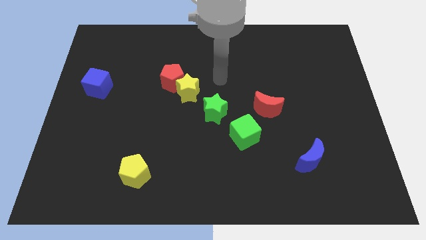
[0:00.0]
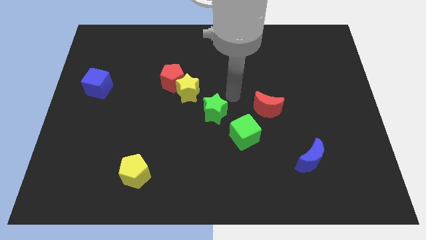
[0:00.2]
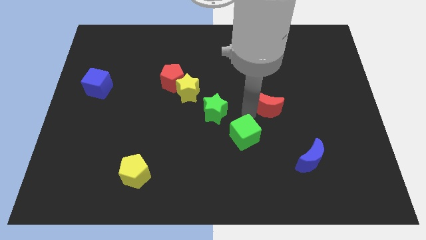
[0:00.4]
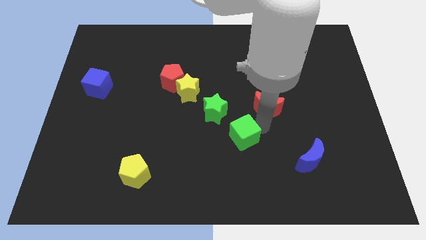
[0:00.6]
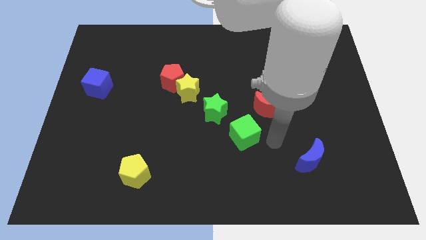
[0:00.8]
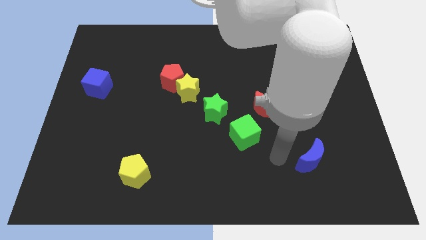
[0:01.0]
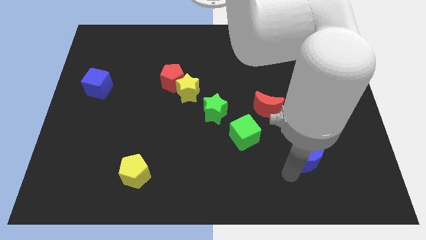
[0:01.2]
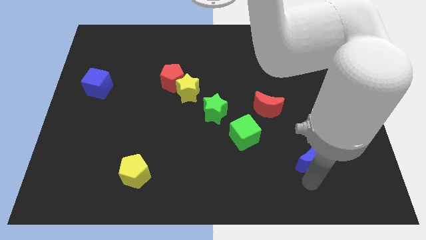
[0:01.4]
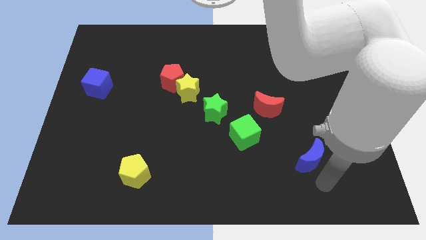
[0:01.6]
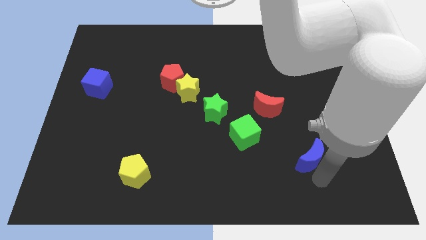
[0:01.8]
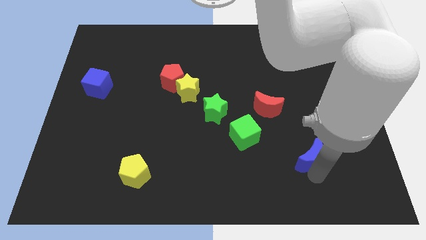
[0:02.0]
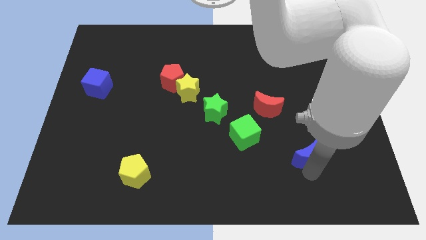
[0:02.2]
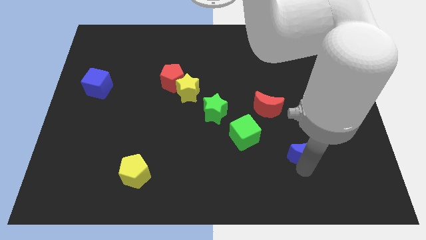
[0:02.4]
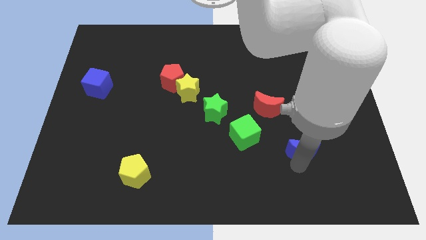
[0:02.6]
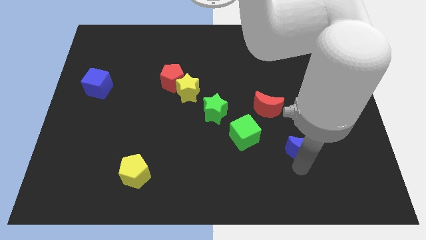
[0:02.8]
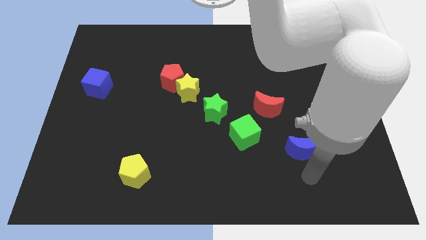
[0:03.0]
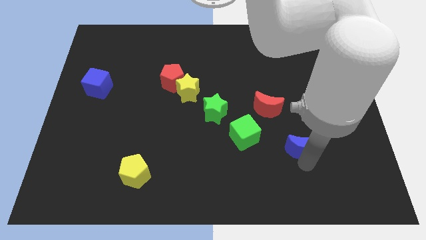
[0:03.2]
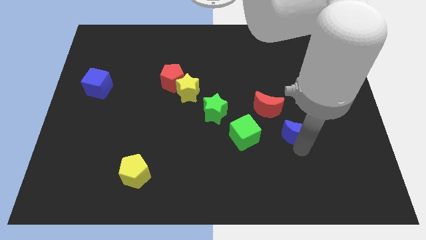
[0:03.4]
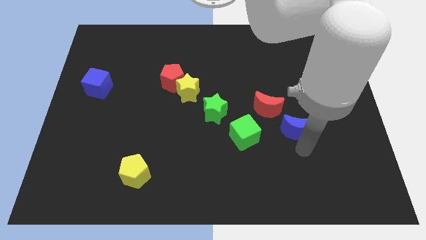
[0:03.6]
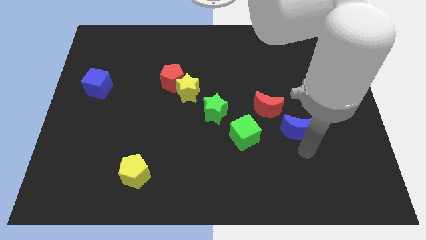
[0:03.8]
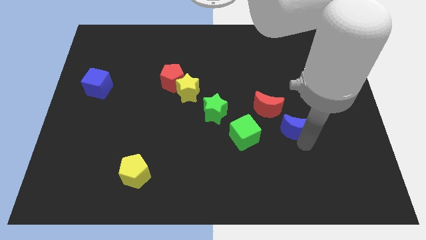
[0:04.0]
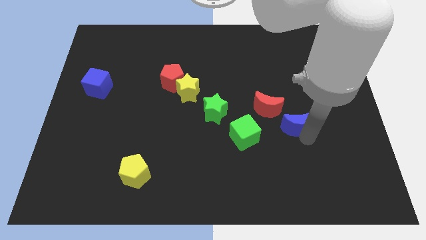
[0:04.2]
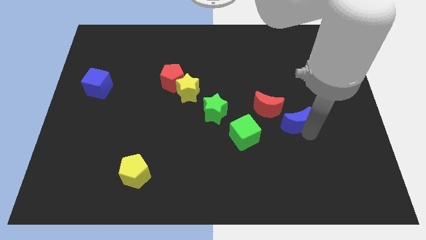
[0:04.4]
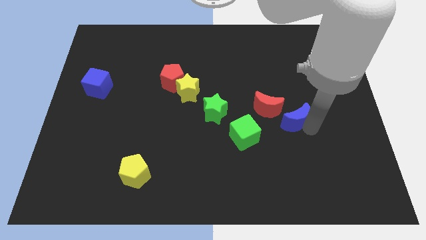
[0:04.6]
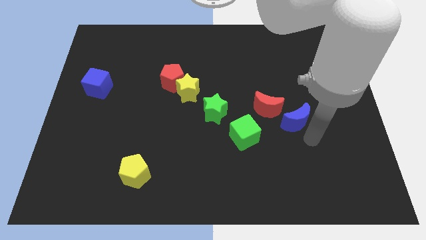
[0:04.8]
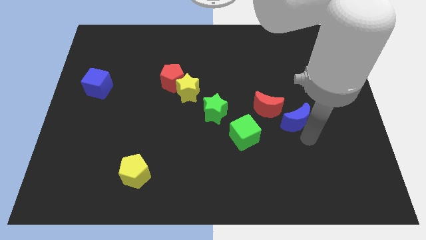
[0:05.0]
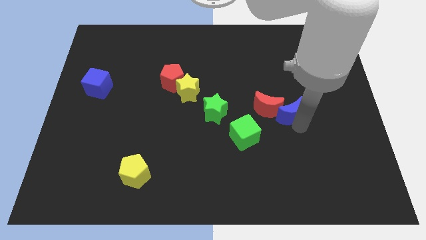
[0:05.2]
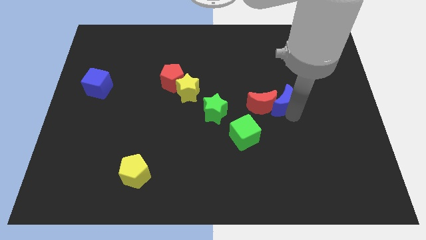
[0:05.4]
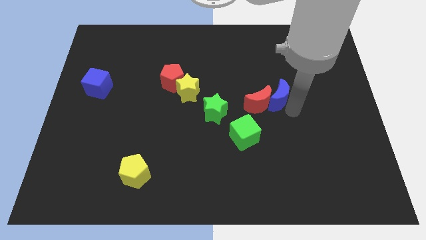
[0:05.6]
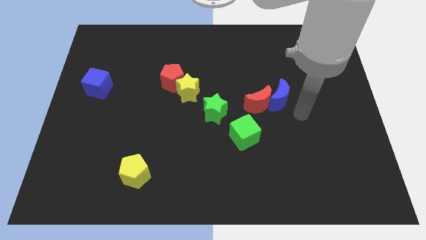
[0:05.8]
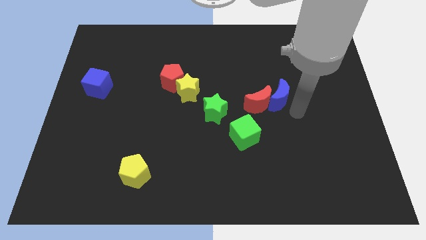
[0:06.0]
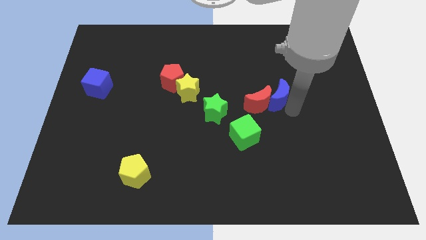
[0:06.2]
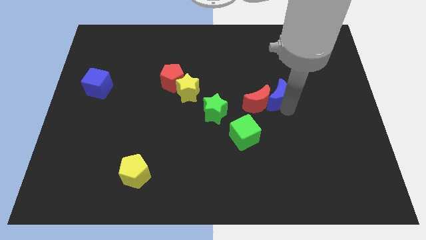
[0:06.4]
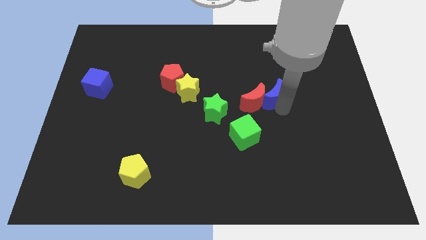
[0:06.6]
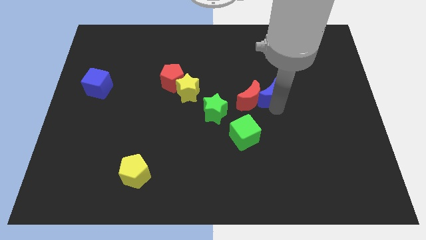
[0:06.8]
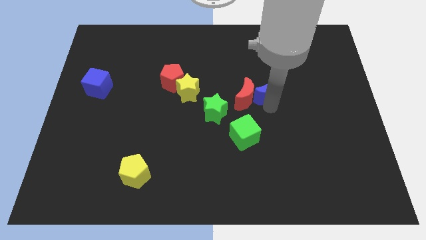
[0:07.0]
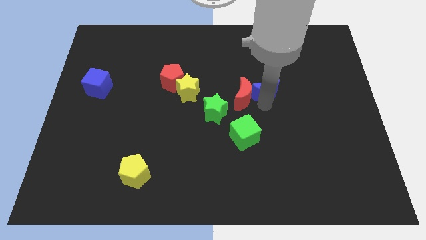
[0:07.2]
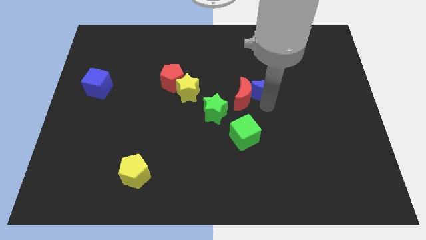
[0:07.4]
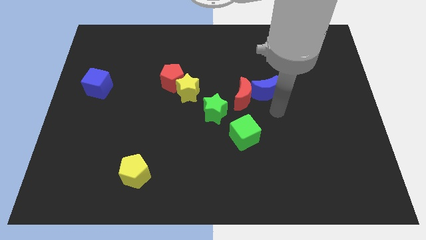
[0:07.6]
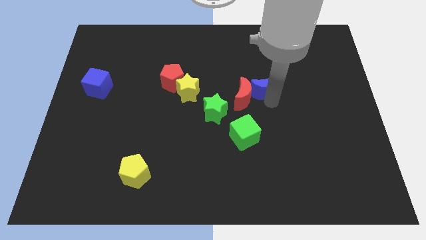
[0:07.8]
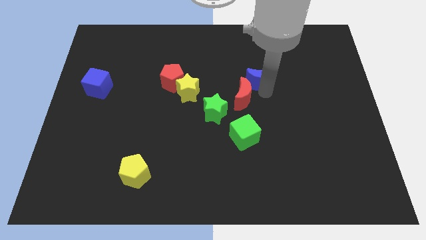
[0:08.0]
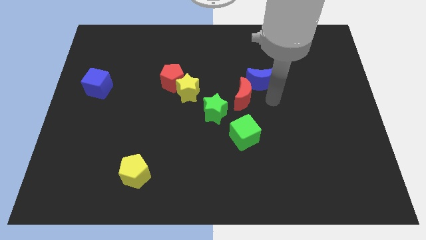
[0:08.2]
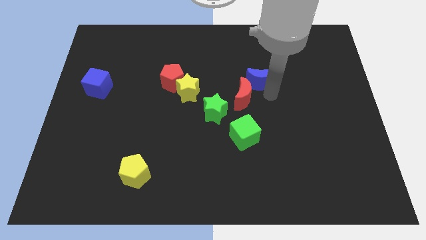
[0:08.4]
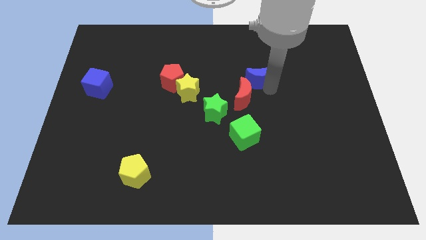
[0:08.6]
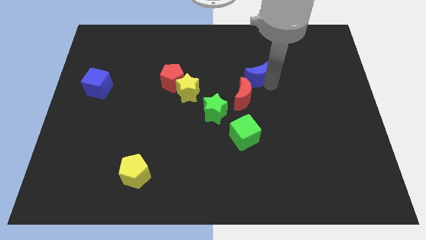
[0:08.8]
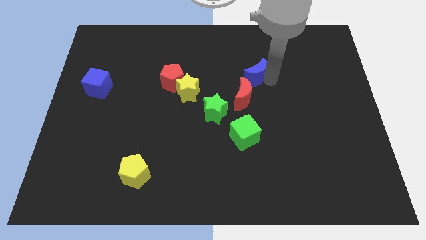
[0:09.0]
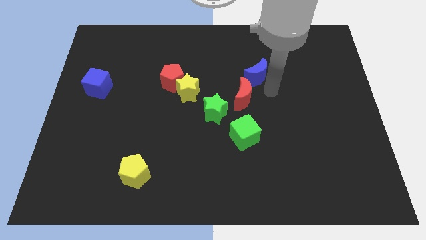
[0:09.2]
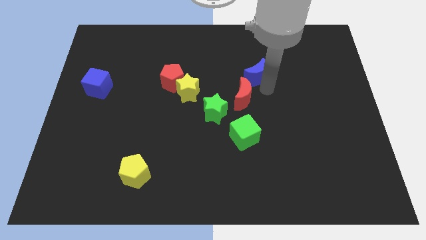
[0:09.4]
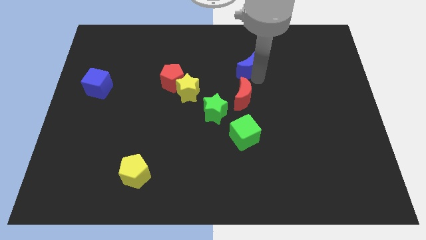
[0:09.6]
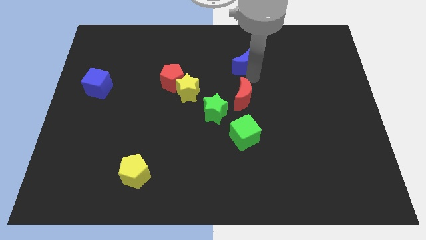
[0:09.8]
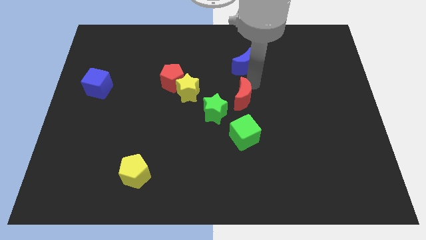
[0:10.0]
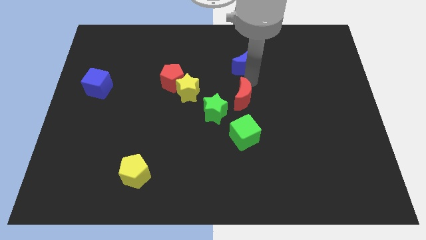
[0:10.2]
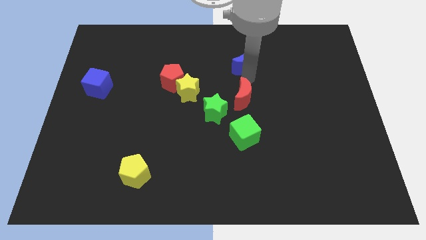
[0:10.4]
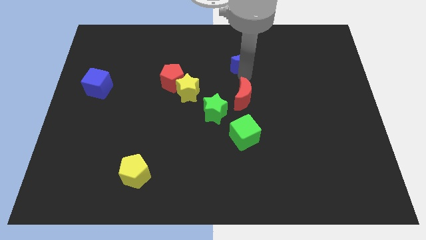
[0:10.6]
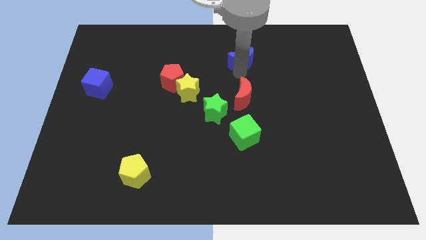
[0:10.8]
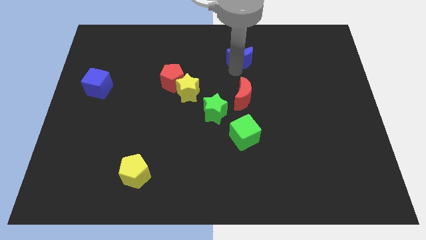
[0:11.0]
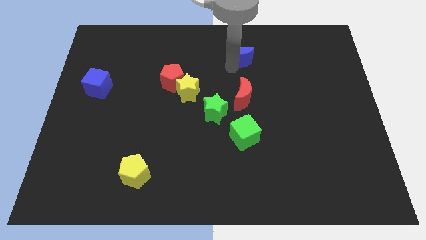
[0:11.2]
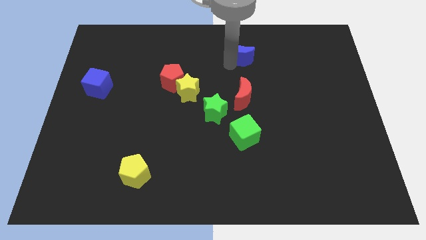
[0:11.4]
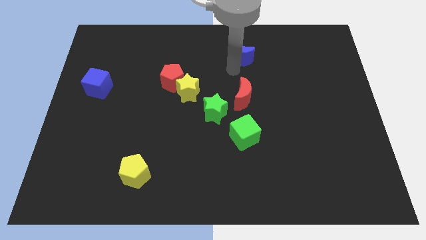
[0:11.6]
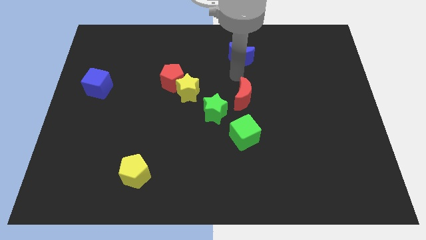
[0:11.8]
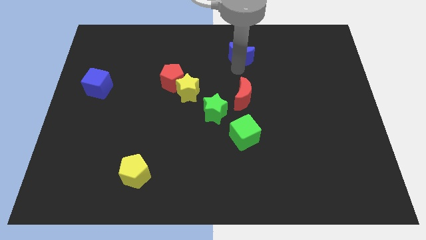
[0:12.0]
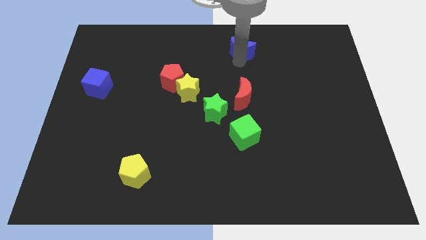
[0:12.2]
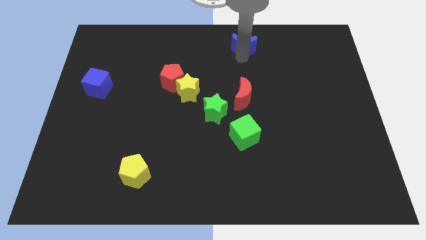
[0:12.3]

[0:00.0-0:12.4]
slide the blue moon to the top
